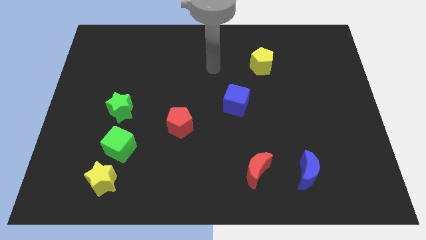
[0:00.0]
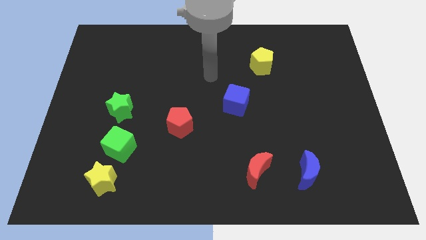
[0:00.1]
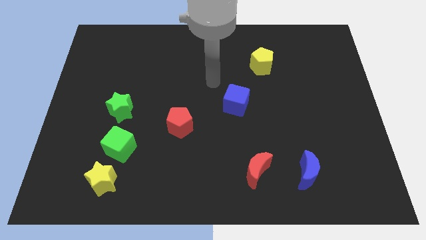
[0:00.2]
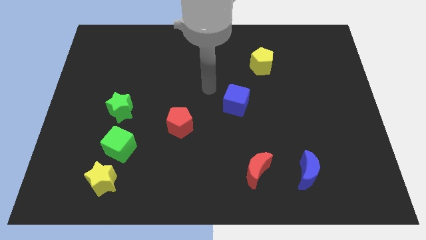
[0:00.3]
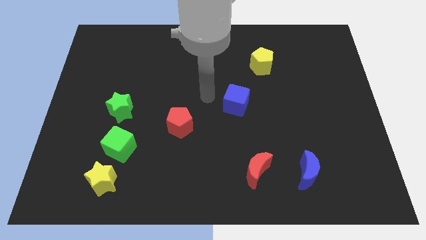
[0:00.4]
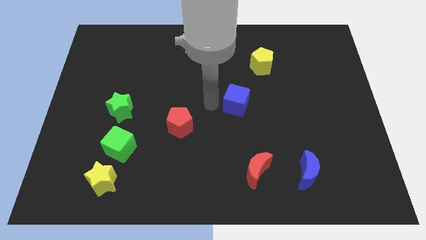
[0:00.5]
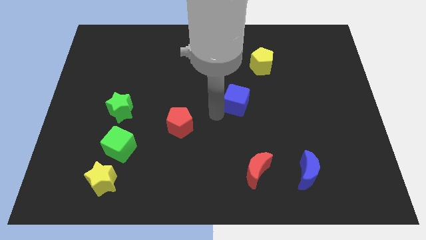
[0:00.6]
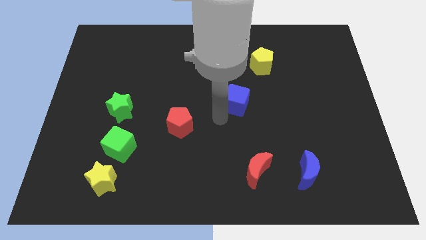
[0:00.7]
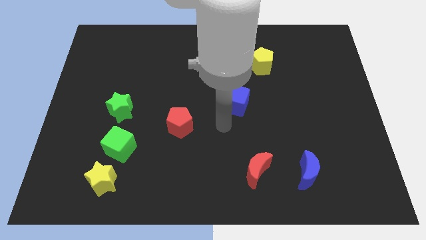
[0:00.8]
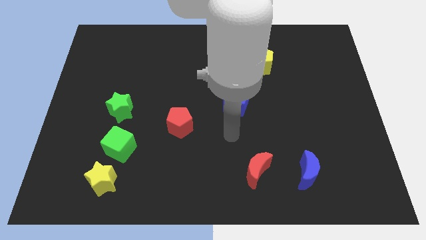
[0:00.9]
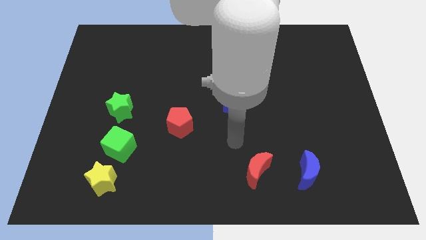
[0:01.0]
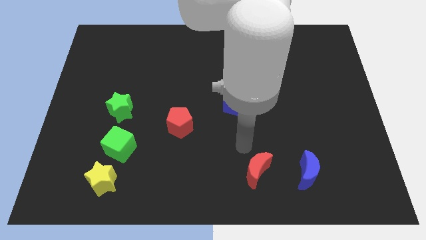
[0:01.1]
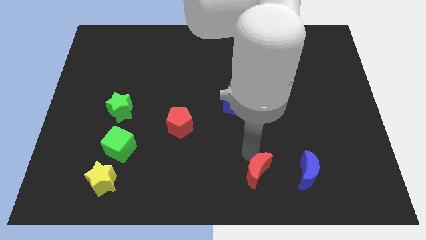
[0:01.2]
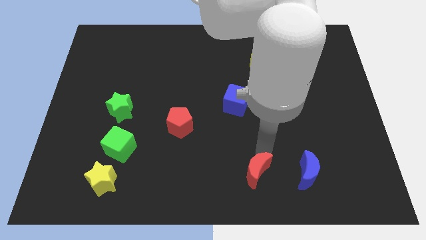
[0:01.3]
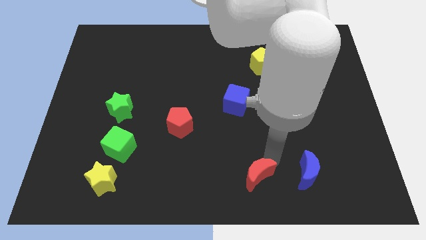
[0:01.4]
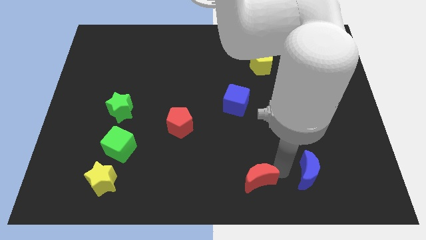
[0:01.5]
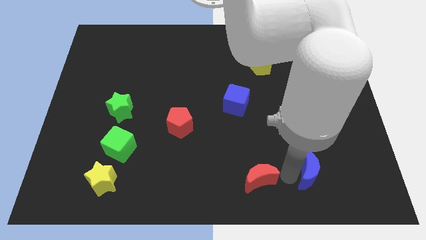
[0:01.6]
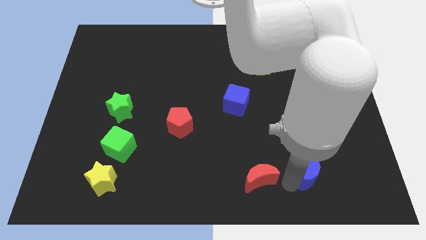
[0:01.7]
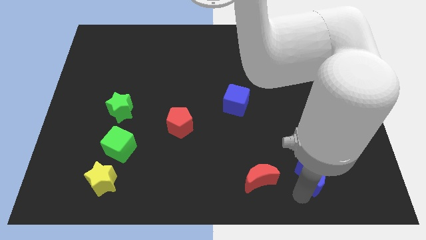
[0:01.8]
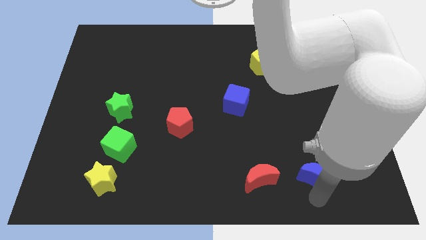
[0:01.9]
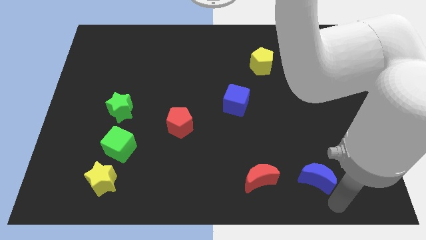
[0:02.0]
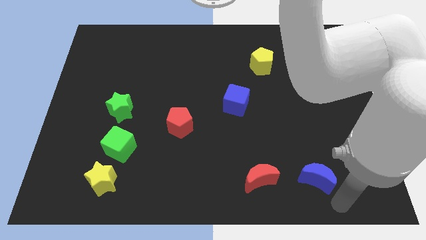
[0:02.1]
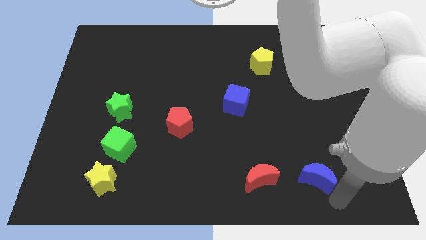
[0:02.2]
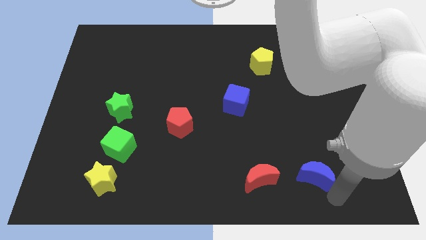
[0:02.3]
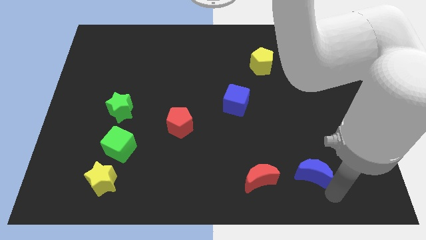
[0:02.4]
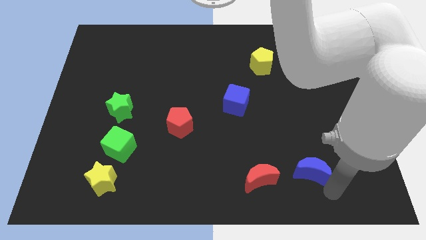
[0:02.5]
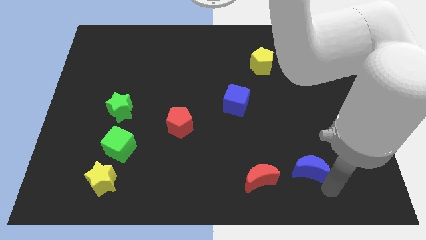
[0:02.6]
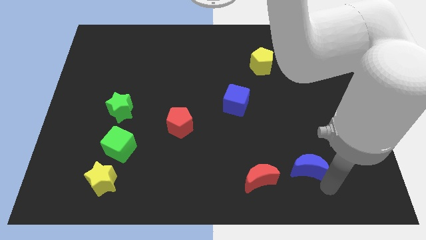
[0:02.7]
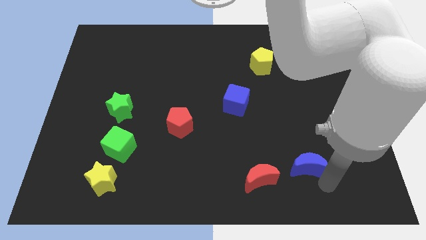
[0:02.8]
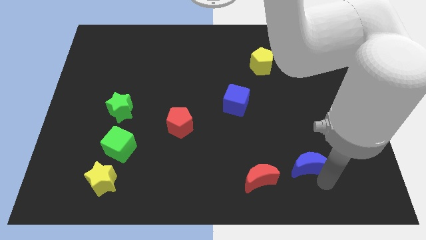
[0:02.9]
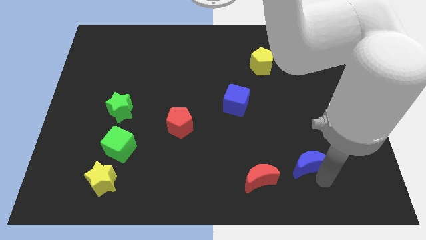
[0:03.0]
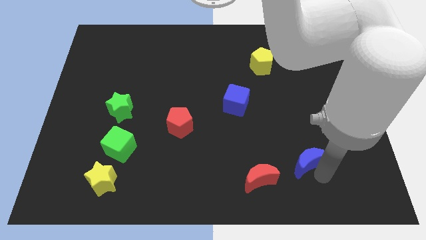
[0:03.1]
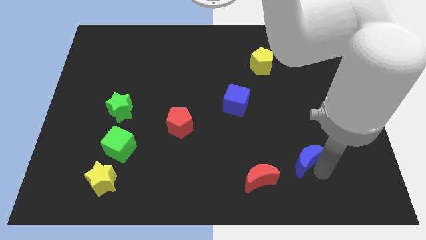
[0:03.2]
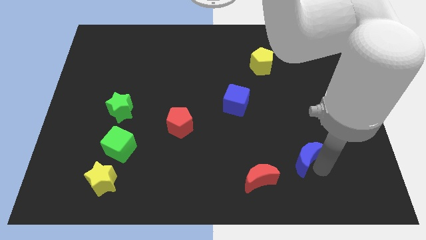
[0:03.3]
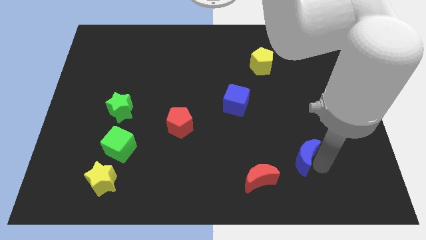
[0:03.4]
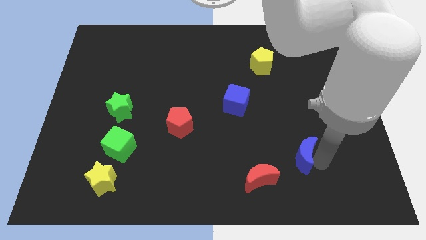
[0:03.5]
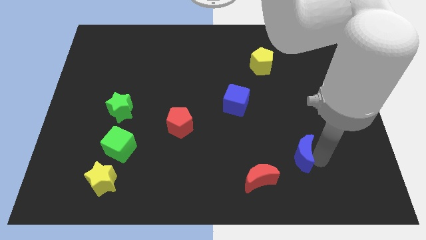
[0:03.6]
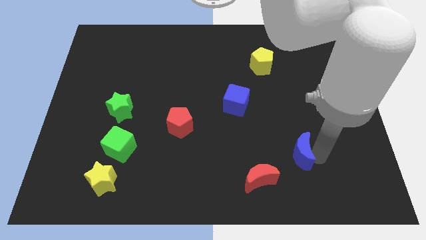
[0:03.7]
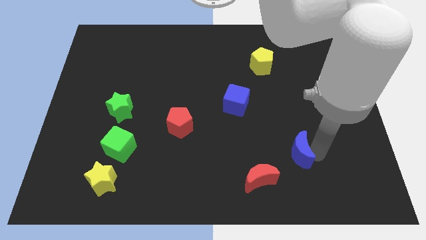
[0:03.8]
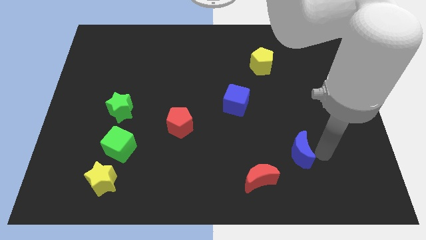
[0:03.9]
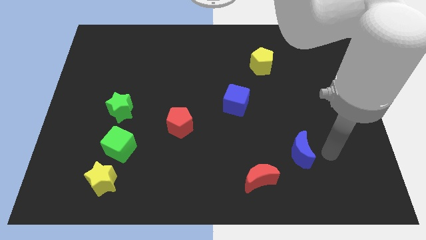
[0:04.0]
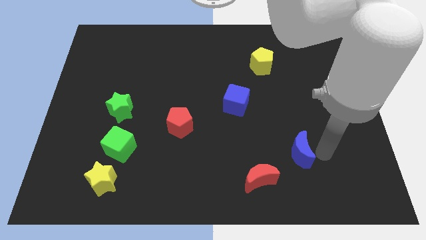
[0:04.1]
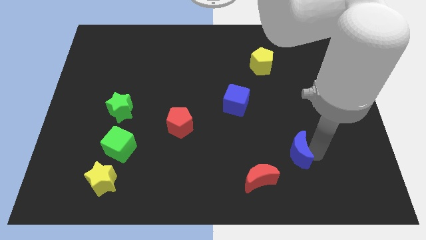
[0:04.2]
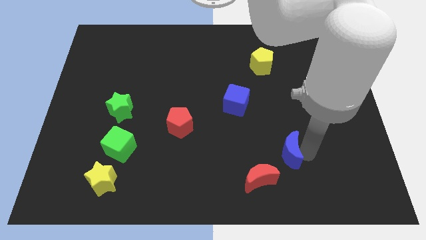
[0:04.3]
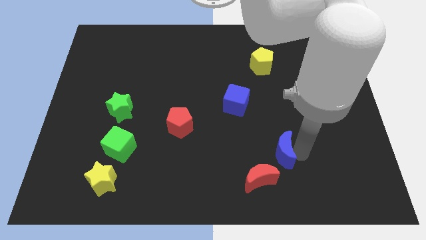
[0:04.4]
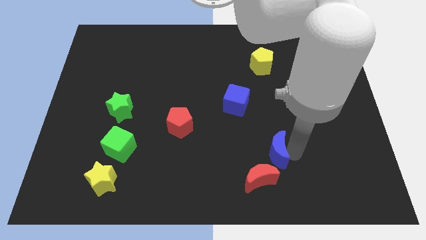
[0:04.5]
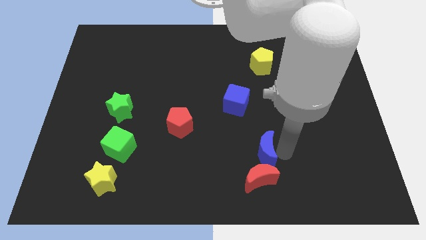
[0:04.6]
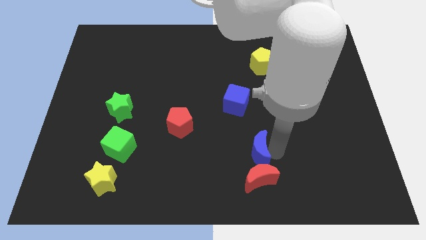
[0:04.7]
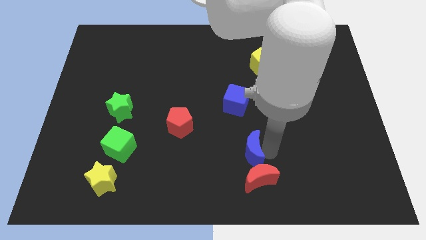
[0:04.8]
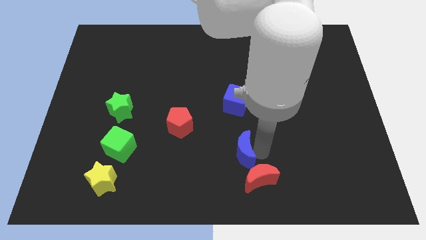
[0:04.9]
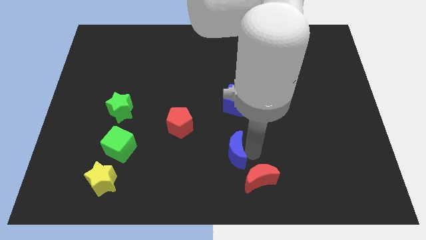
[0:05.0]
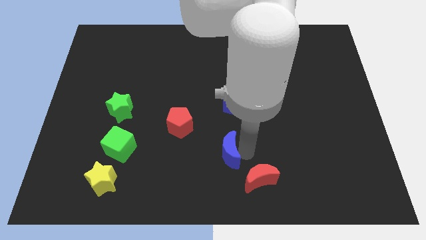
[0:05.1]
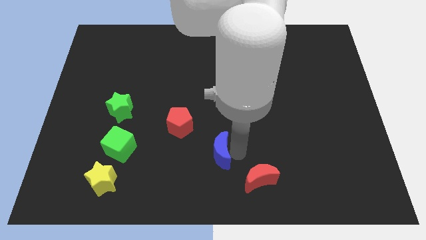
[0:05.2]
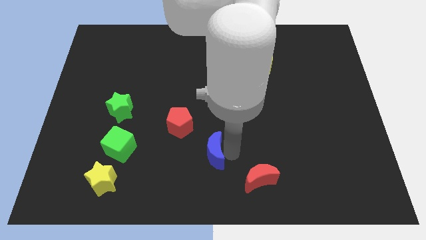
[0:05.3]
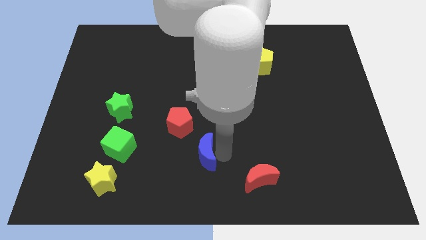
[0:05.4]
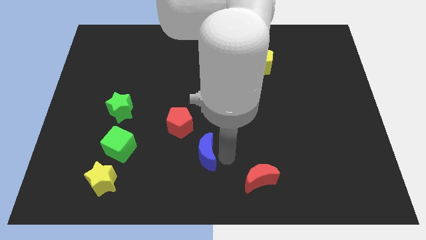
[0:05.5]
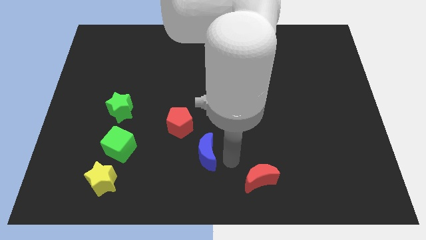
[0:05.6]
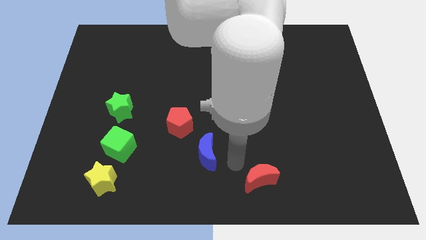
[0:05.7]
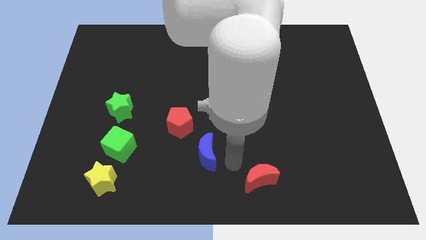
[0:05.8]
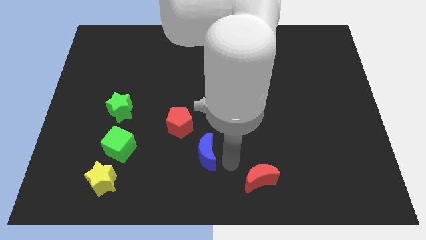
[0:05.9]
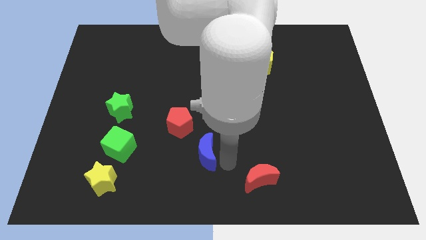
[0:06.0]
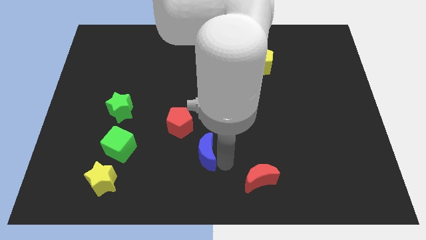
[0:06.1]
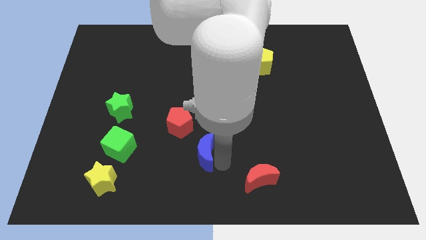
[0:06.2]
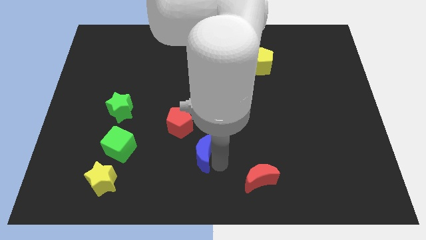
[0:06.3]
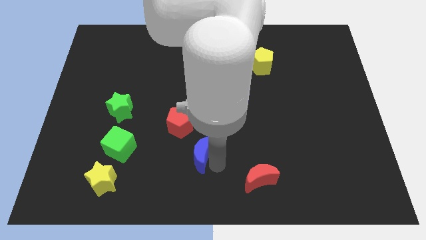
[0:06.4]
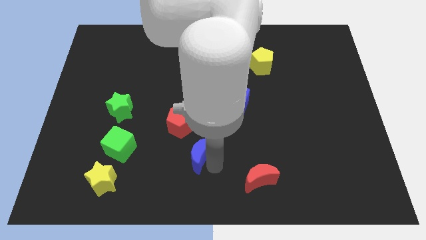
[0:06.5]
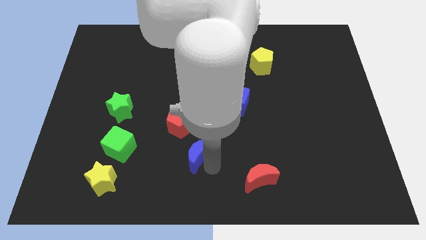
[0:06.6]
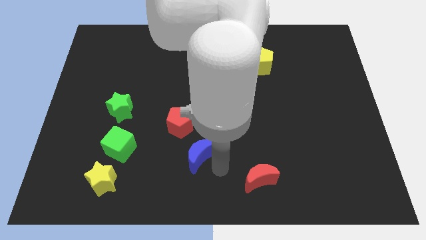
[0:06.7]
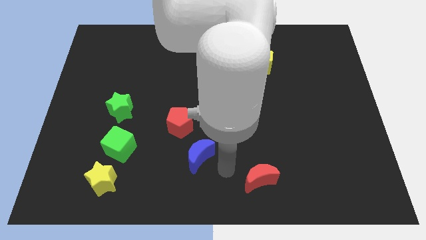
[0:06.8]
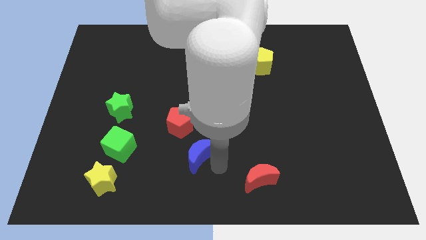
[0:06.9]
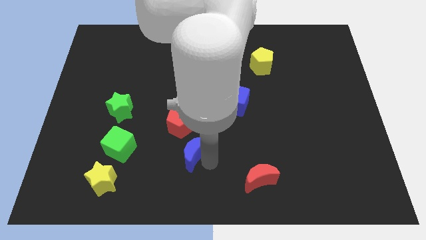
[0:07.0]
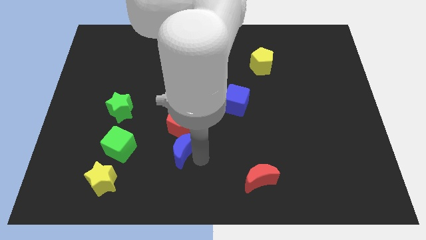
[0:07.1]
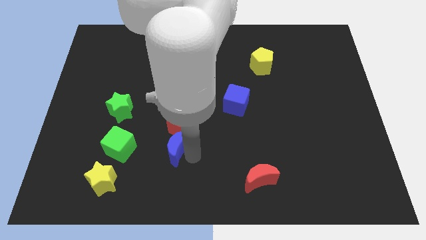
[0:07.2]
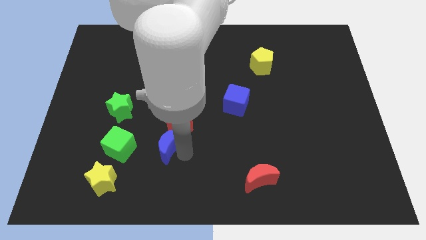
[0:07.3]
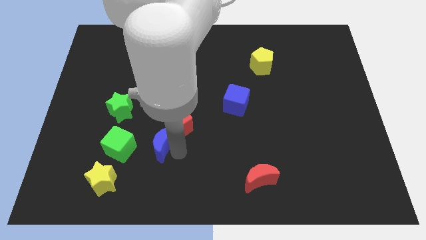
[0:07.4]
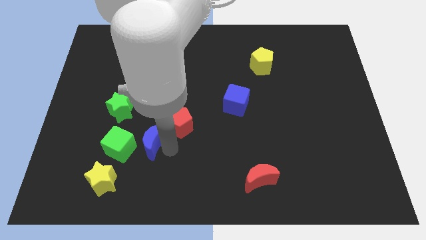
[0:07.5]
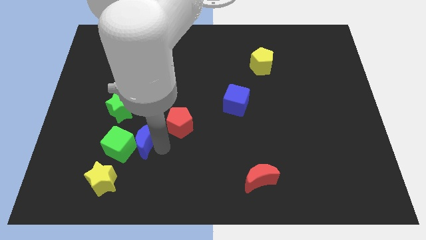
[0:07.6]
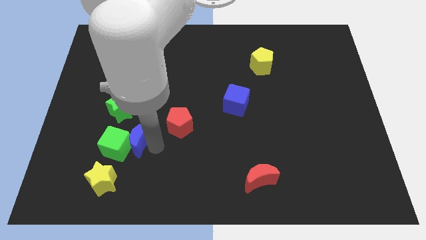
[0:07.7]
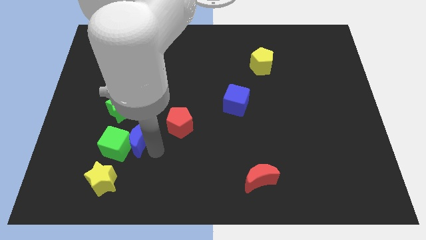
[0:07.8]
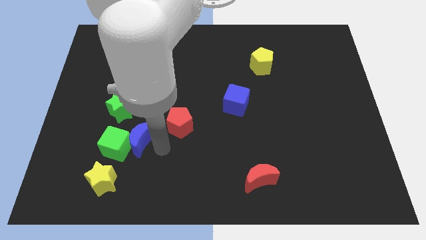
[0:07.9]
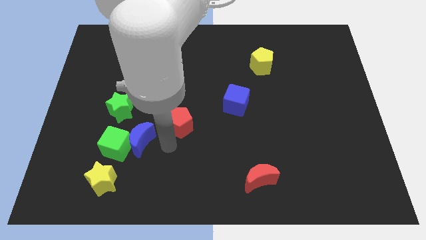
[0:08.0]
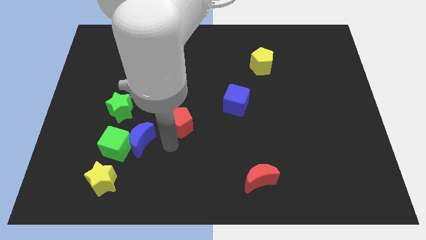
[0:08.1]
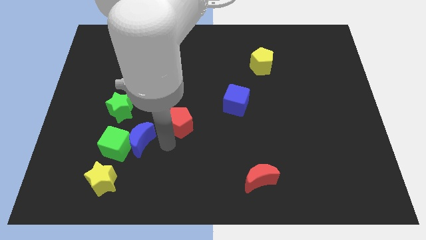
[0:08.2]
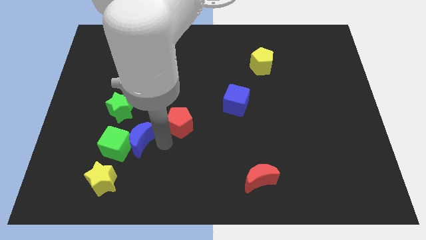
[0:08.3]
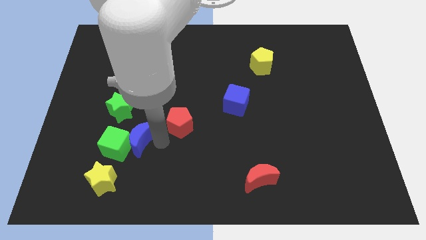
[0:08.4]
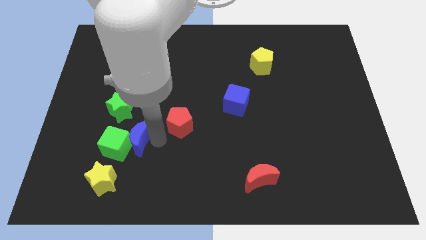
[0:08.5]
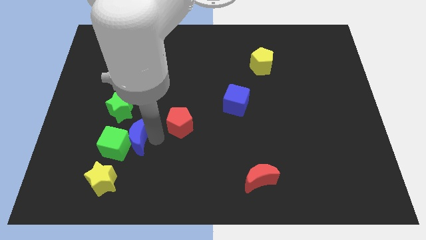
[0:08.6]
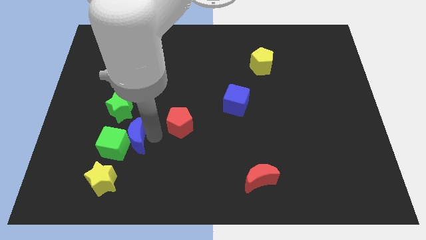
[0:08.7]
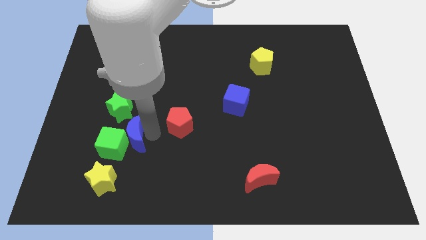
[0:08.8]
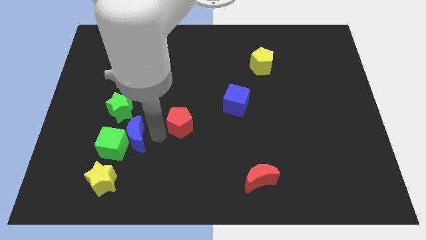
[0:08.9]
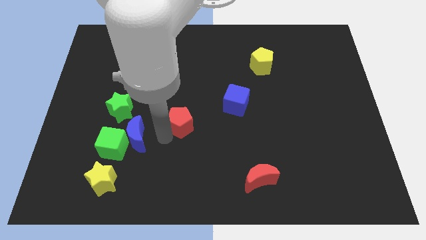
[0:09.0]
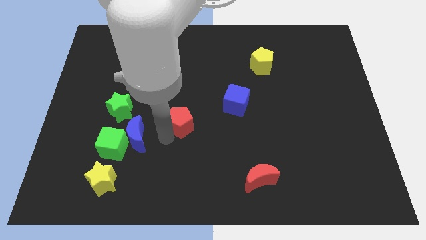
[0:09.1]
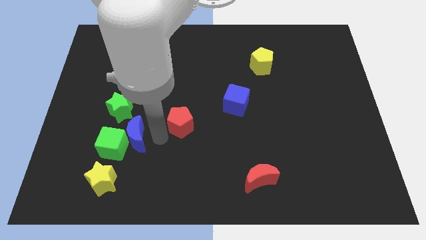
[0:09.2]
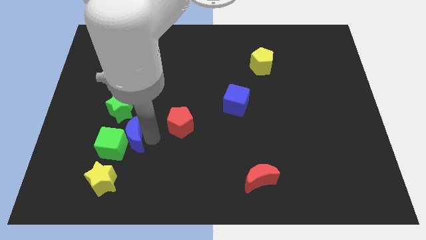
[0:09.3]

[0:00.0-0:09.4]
slide the blue moon to the top of the yellow star
